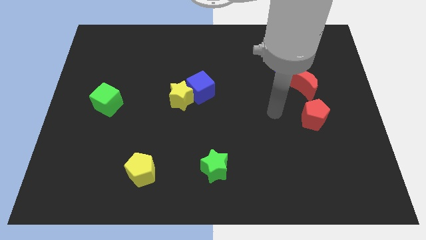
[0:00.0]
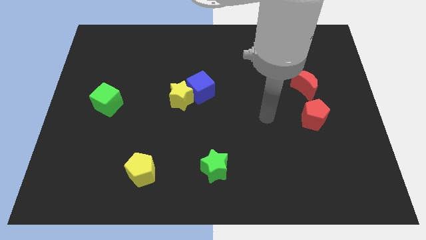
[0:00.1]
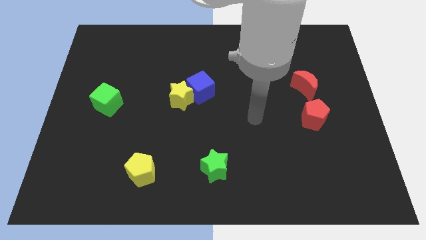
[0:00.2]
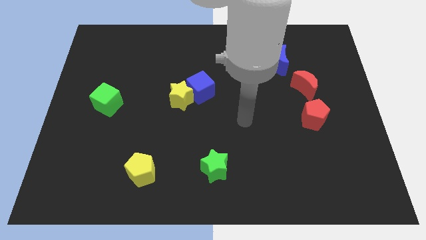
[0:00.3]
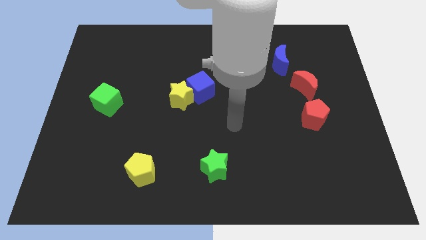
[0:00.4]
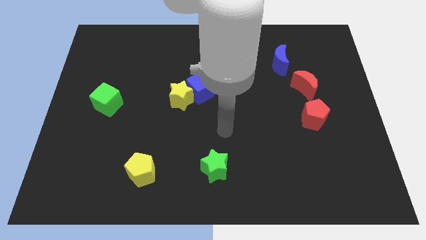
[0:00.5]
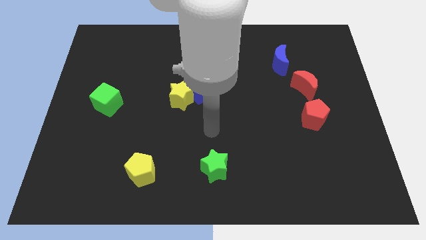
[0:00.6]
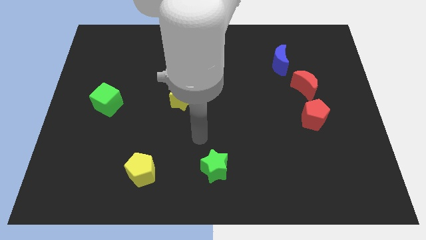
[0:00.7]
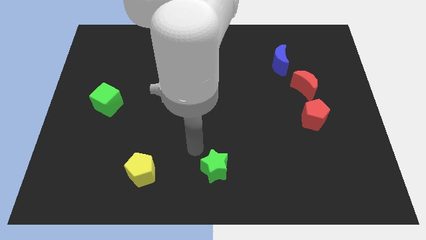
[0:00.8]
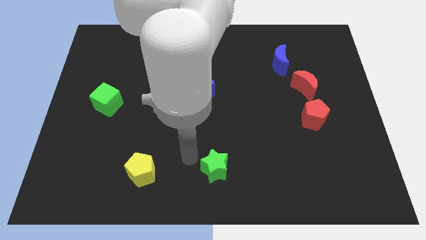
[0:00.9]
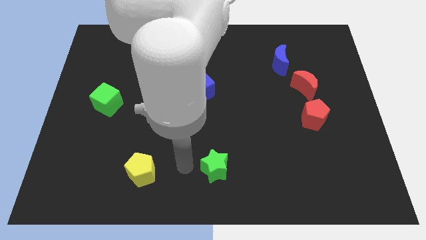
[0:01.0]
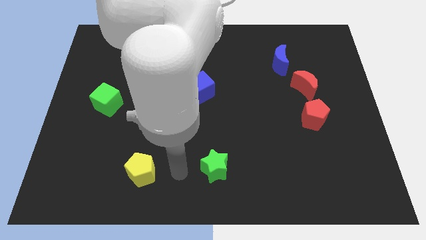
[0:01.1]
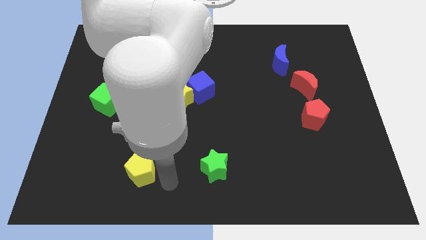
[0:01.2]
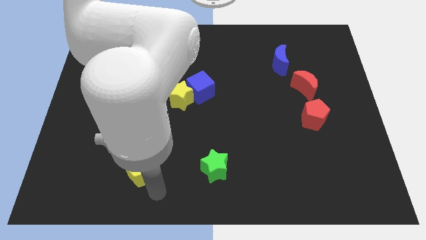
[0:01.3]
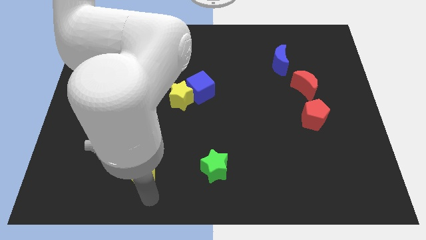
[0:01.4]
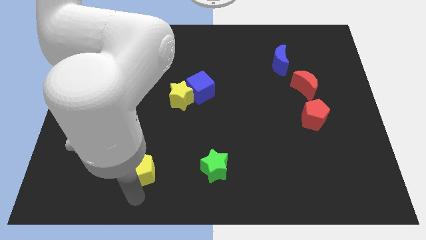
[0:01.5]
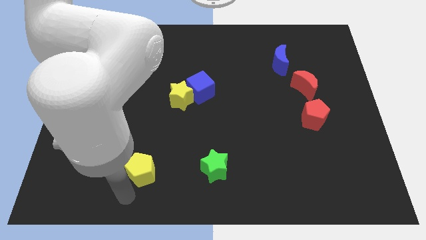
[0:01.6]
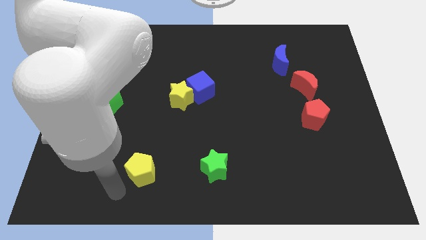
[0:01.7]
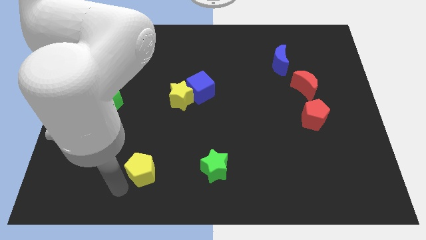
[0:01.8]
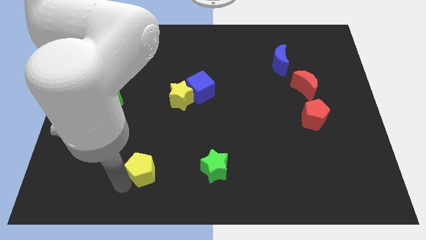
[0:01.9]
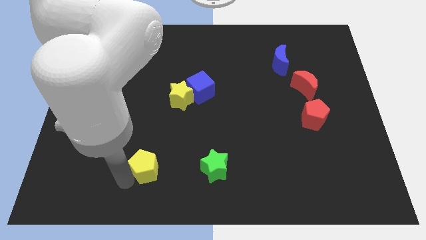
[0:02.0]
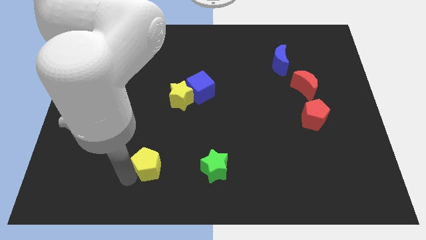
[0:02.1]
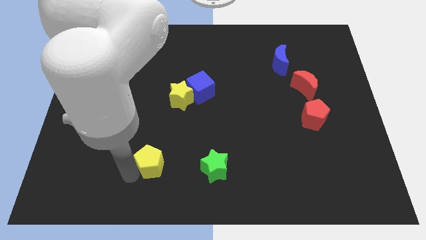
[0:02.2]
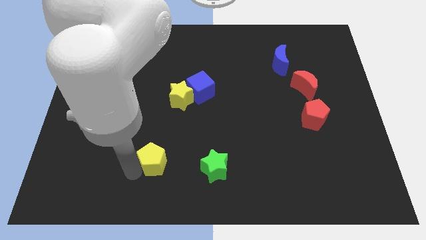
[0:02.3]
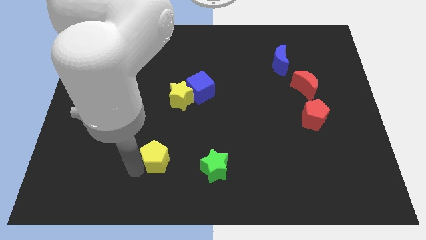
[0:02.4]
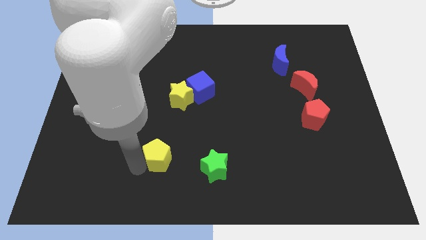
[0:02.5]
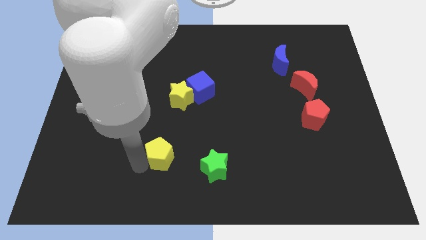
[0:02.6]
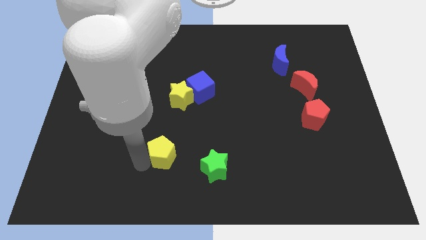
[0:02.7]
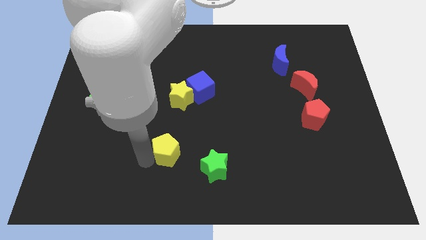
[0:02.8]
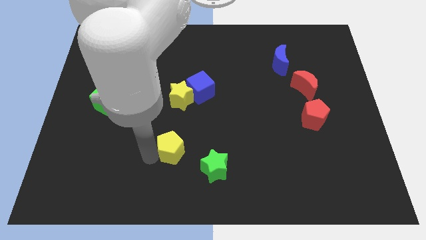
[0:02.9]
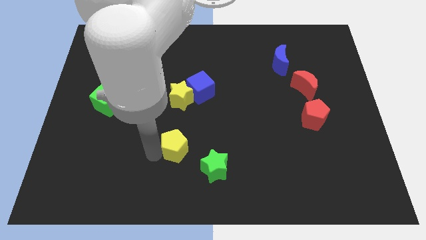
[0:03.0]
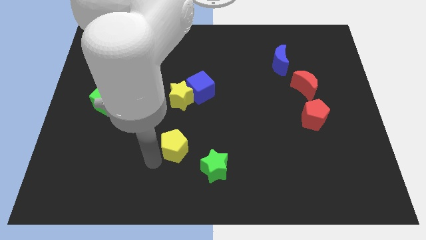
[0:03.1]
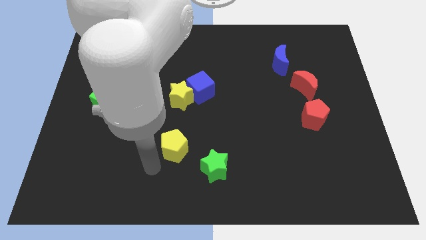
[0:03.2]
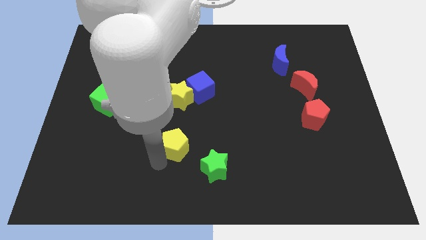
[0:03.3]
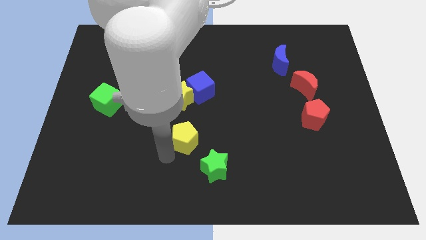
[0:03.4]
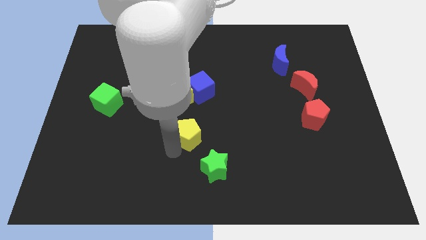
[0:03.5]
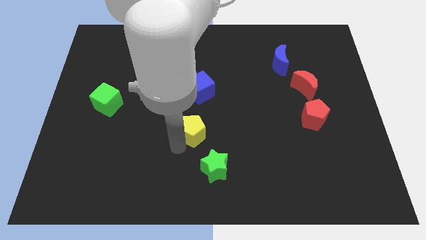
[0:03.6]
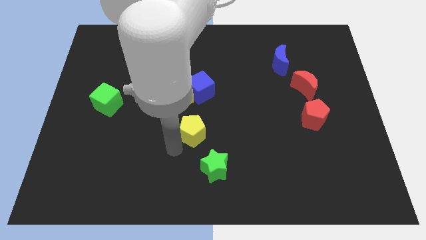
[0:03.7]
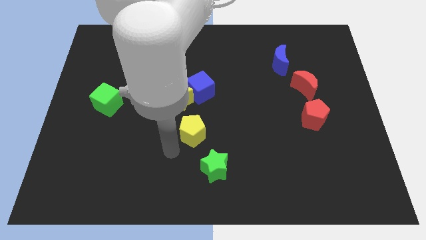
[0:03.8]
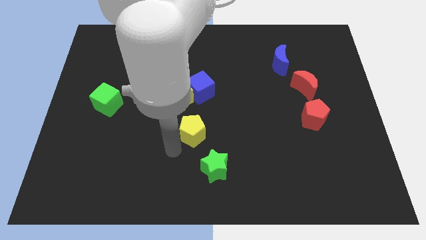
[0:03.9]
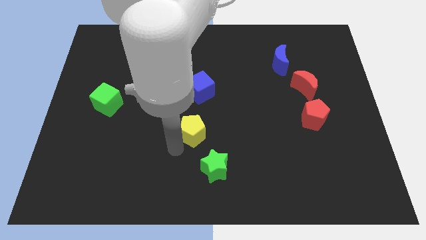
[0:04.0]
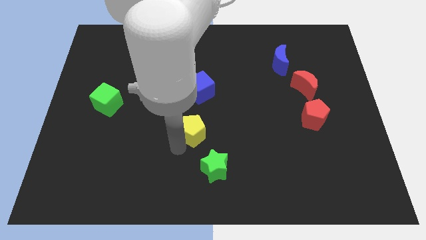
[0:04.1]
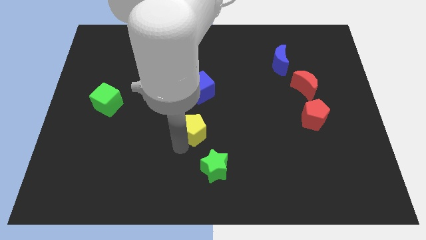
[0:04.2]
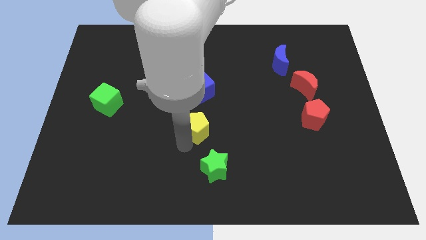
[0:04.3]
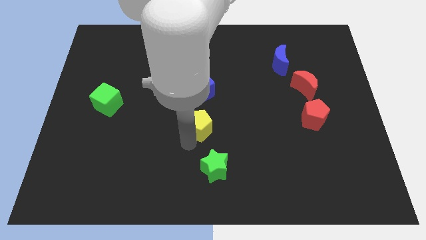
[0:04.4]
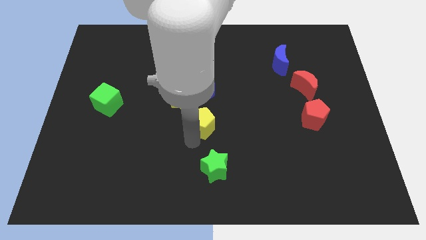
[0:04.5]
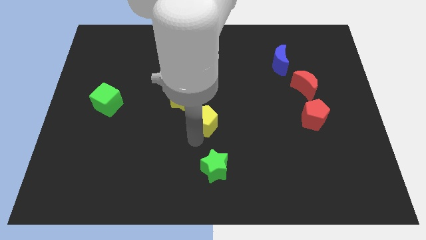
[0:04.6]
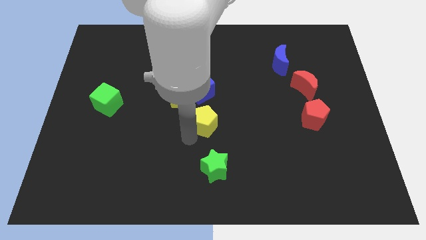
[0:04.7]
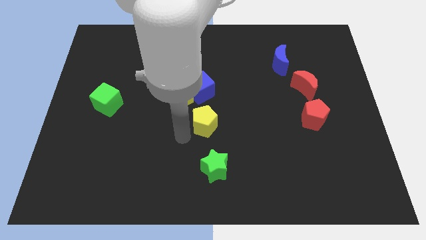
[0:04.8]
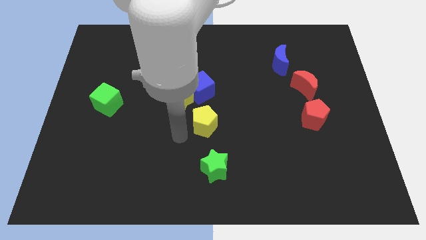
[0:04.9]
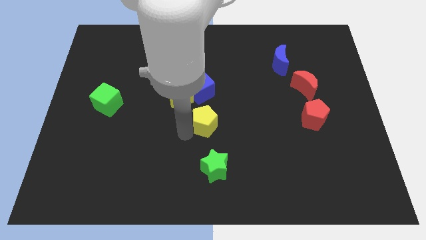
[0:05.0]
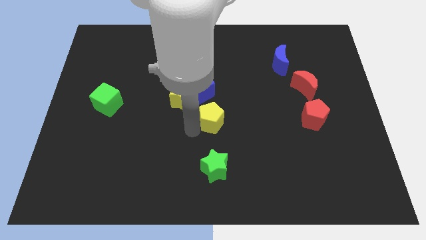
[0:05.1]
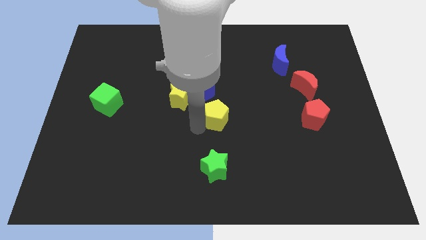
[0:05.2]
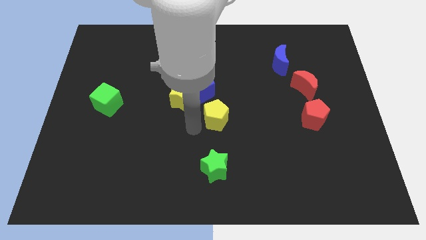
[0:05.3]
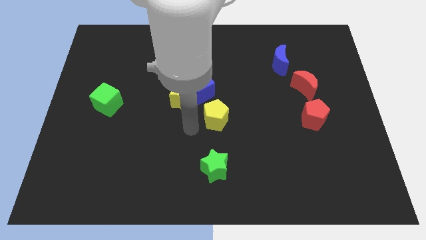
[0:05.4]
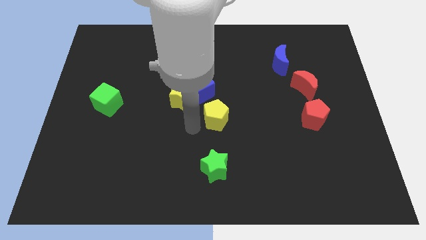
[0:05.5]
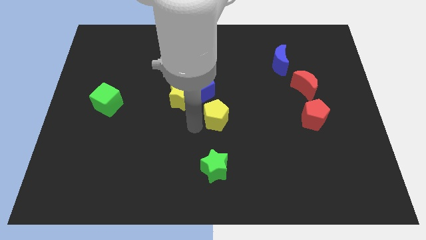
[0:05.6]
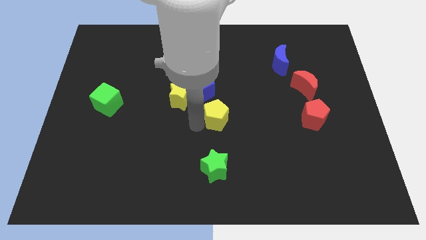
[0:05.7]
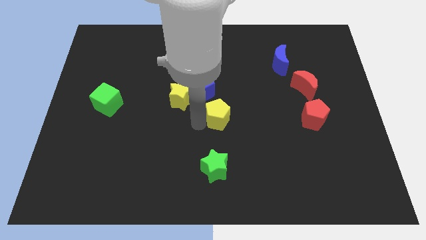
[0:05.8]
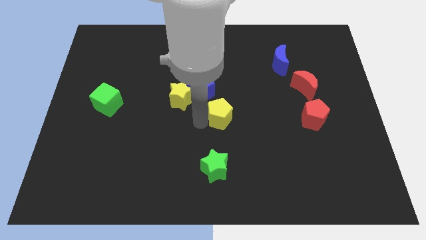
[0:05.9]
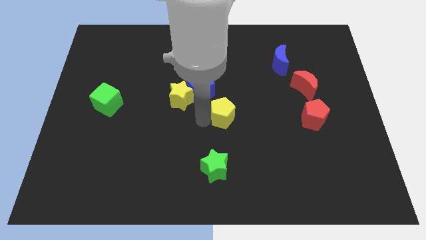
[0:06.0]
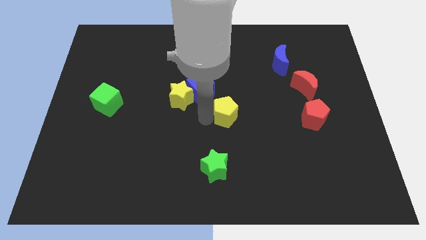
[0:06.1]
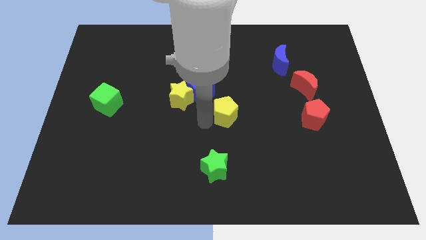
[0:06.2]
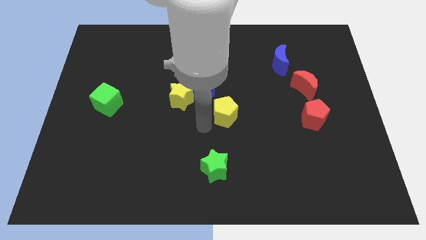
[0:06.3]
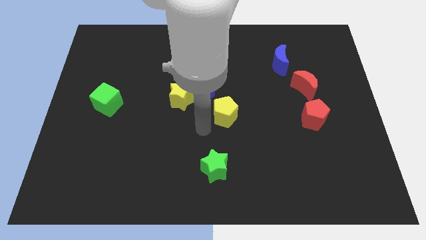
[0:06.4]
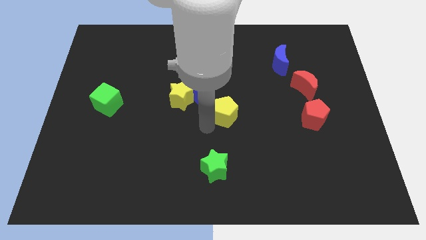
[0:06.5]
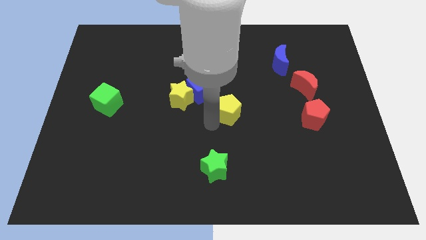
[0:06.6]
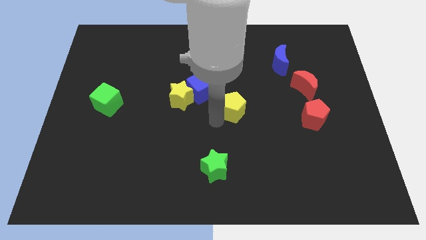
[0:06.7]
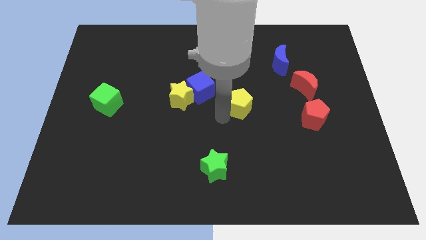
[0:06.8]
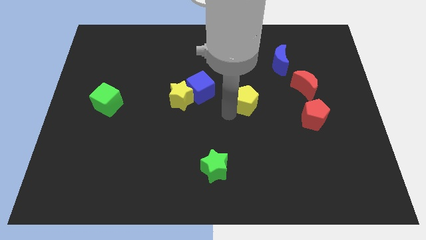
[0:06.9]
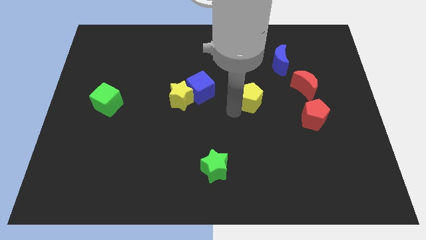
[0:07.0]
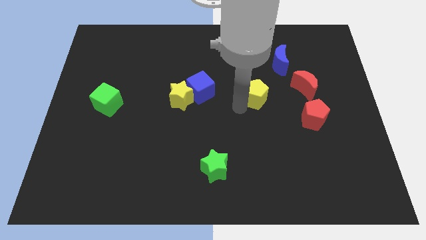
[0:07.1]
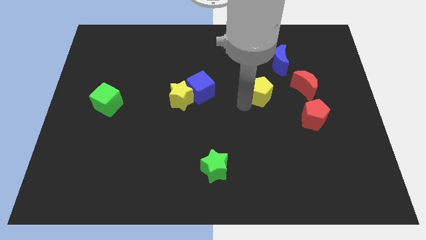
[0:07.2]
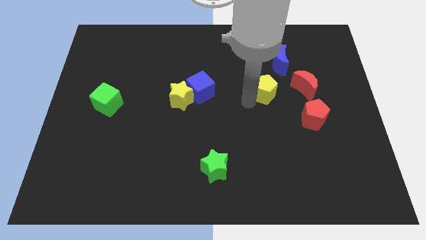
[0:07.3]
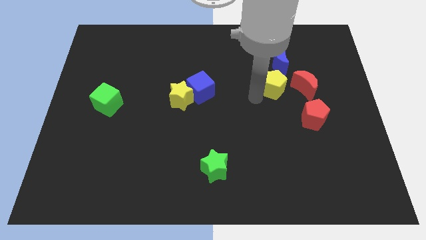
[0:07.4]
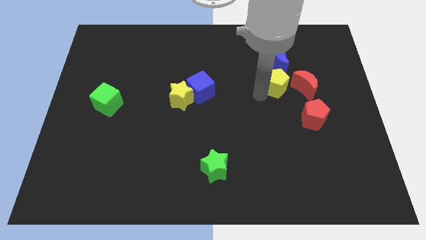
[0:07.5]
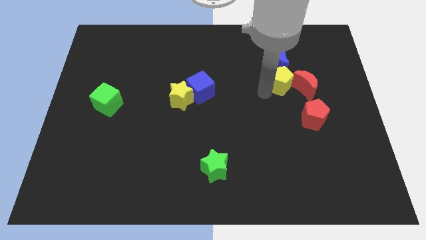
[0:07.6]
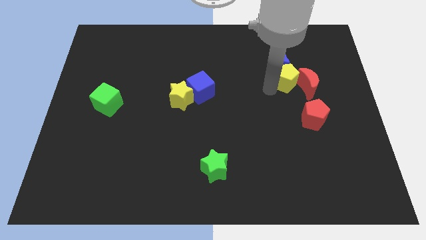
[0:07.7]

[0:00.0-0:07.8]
move the yellow pentagon to the top side of the red pentagon
